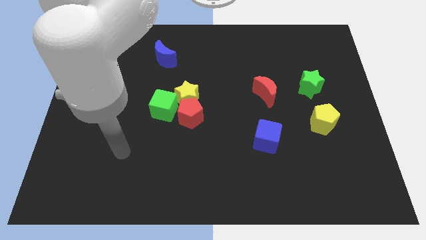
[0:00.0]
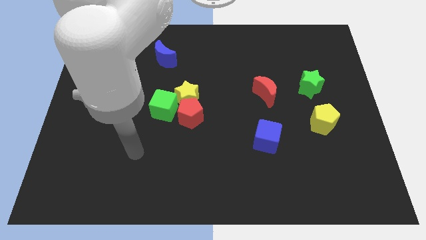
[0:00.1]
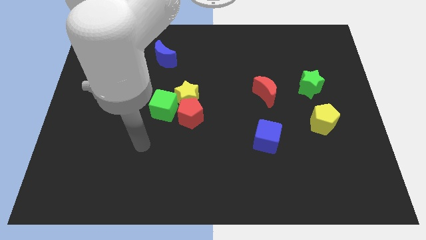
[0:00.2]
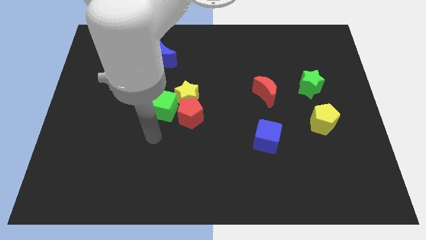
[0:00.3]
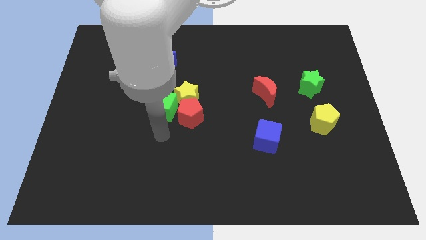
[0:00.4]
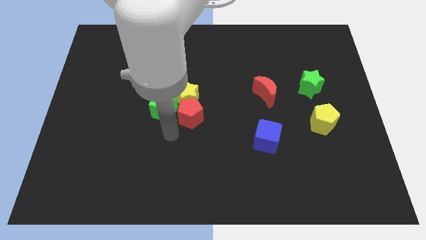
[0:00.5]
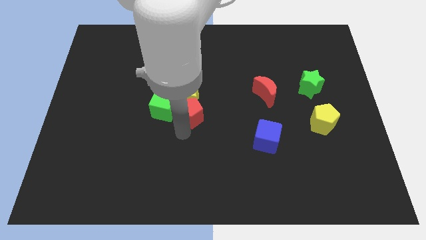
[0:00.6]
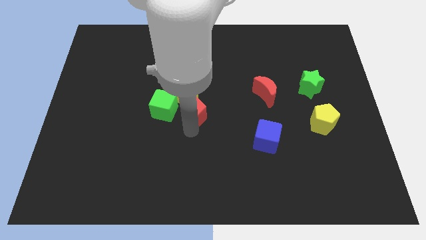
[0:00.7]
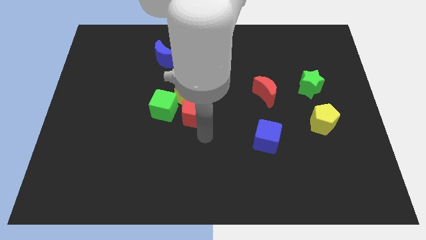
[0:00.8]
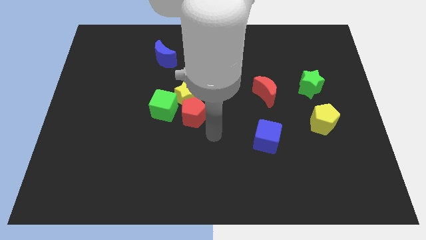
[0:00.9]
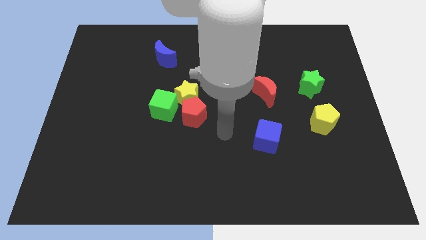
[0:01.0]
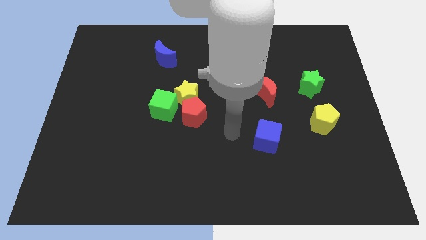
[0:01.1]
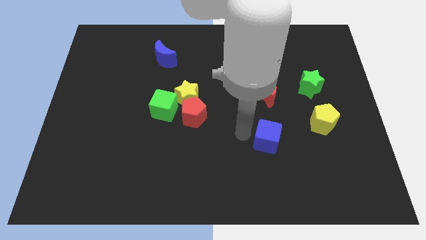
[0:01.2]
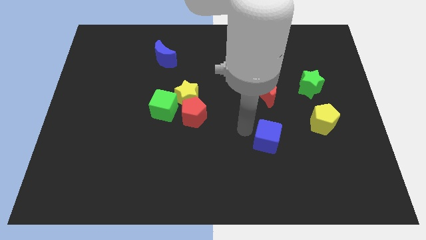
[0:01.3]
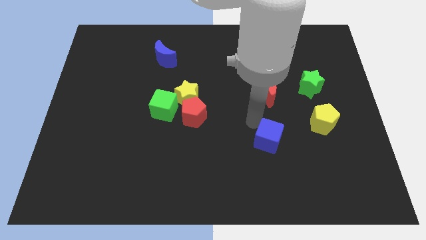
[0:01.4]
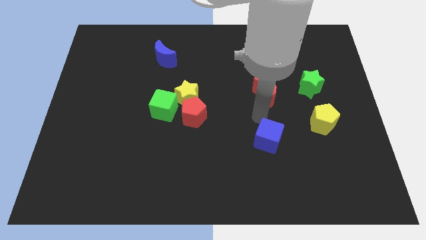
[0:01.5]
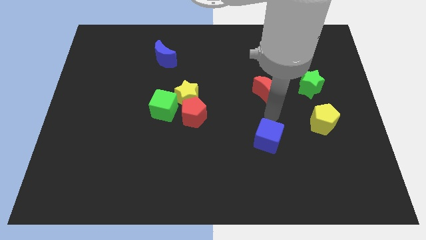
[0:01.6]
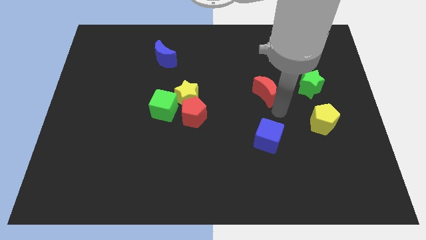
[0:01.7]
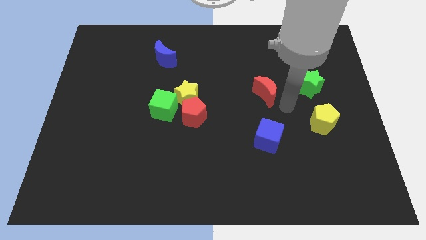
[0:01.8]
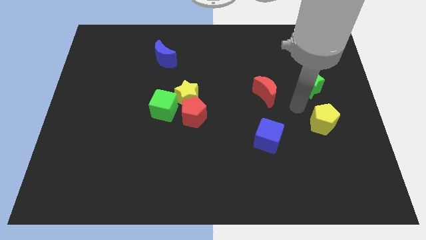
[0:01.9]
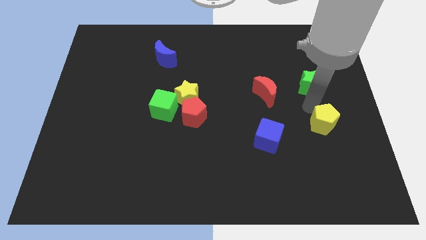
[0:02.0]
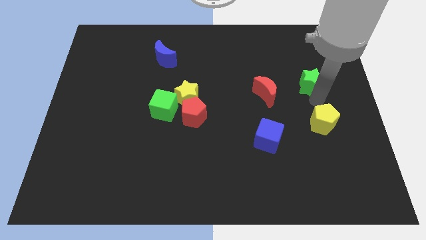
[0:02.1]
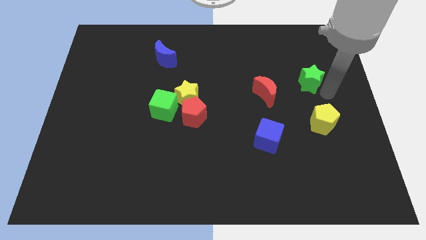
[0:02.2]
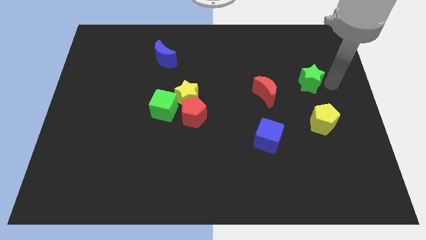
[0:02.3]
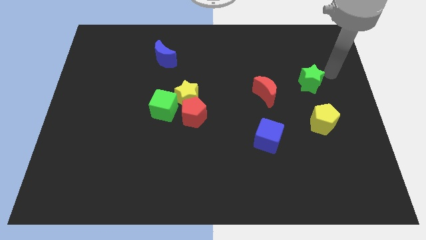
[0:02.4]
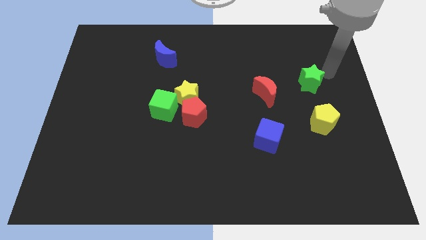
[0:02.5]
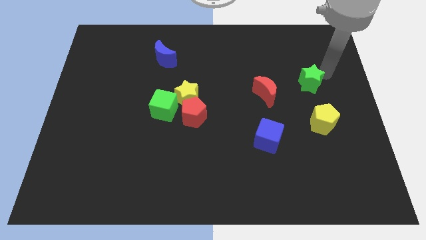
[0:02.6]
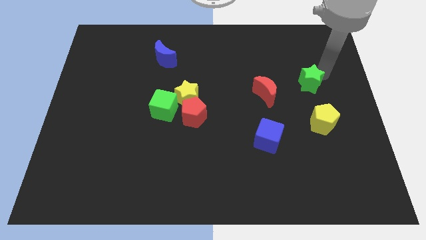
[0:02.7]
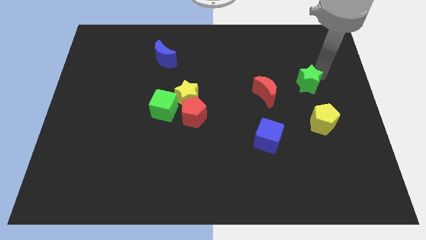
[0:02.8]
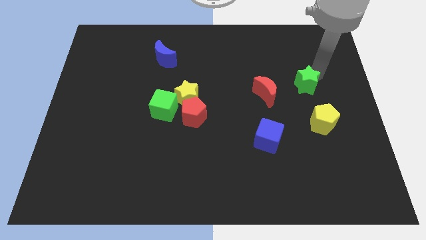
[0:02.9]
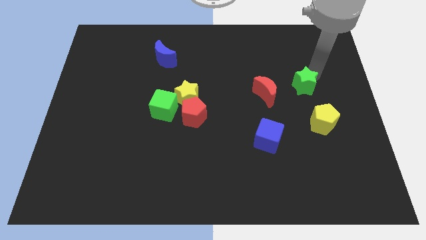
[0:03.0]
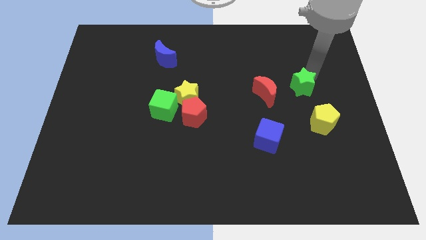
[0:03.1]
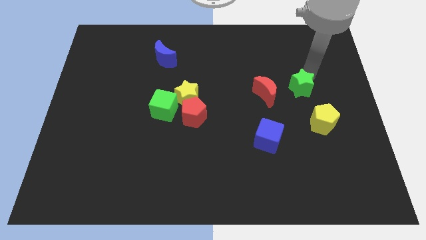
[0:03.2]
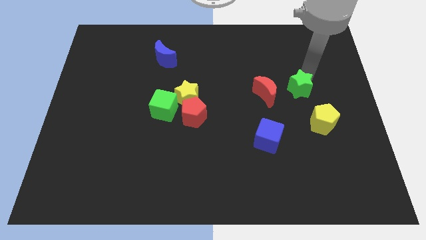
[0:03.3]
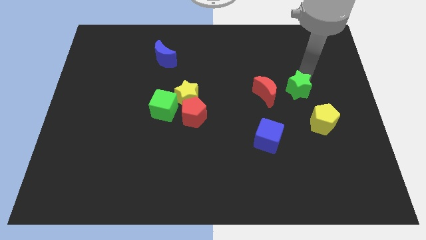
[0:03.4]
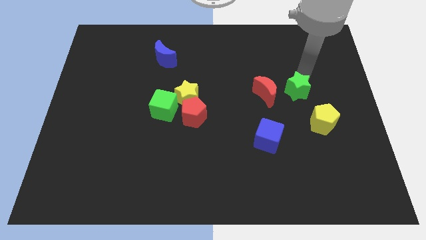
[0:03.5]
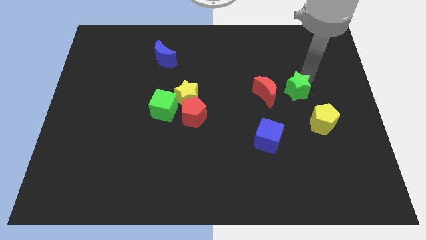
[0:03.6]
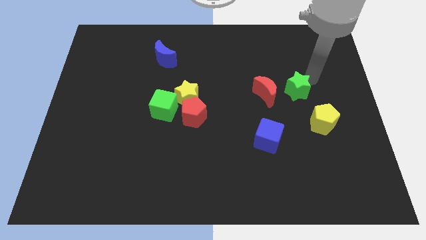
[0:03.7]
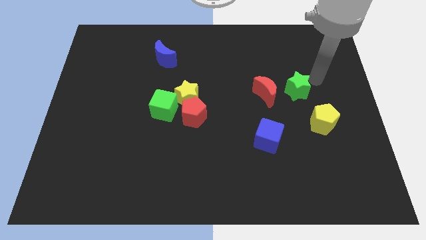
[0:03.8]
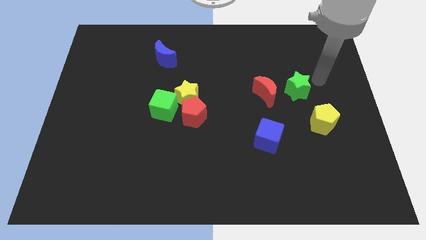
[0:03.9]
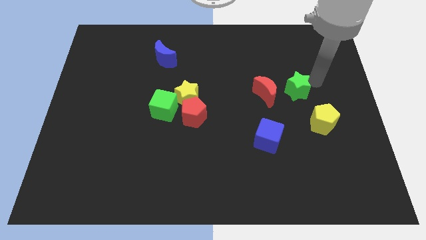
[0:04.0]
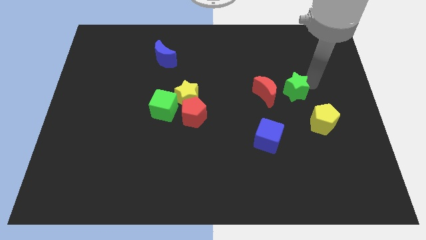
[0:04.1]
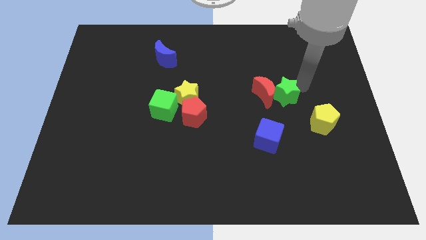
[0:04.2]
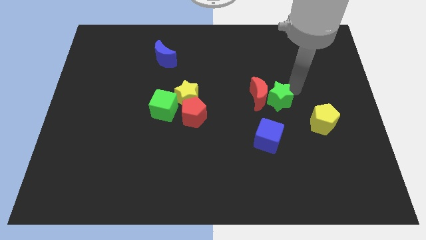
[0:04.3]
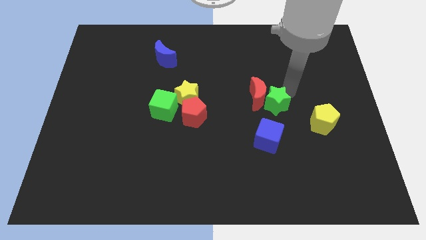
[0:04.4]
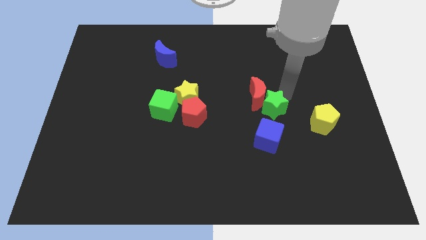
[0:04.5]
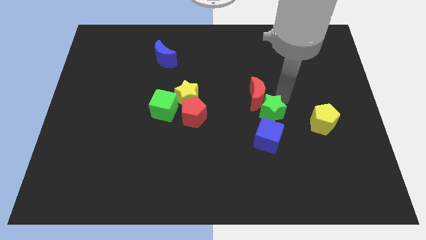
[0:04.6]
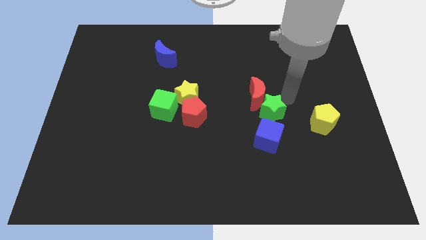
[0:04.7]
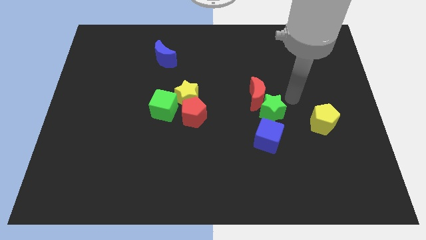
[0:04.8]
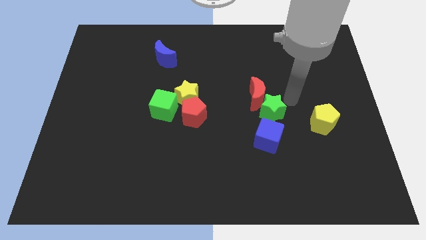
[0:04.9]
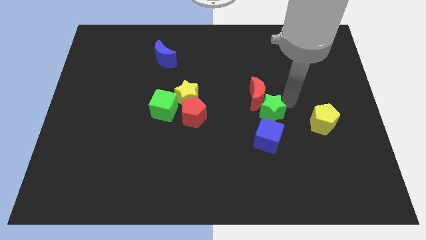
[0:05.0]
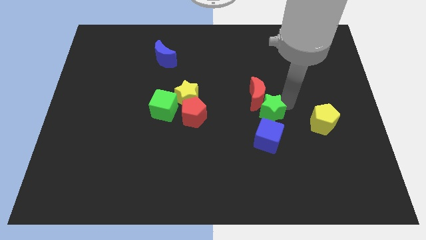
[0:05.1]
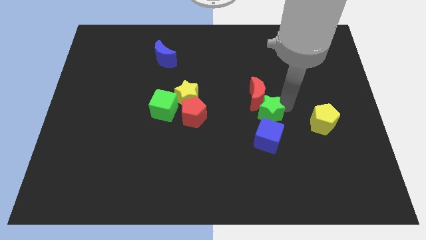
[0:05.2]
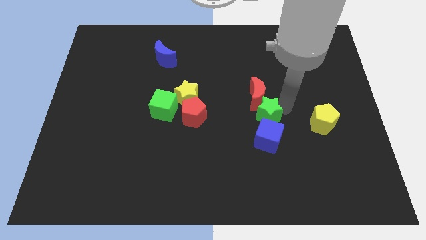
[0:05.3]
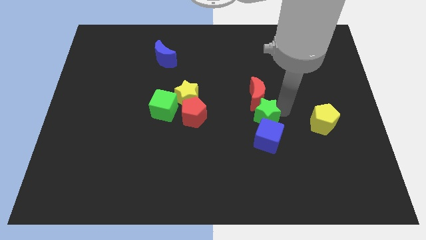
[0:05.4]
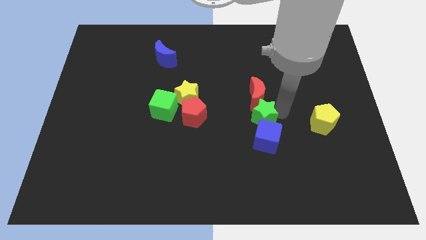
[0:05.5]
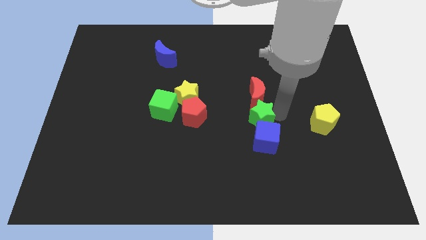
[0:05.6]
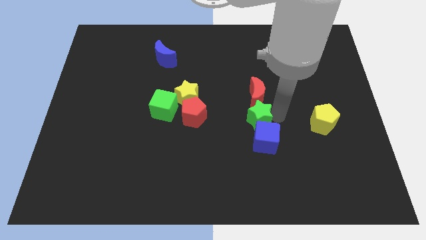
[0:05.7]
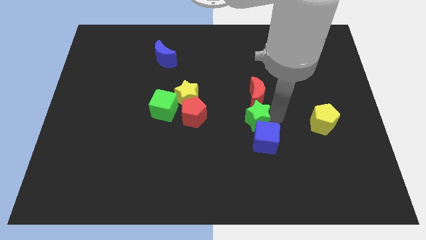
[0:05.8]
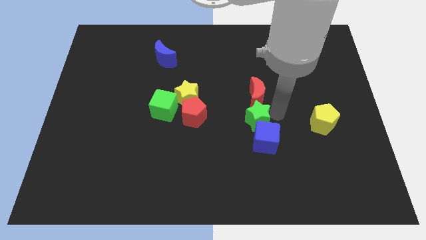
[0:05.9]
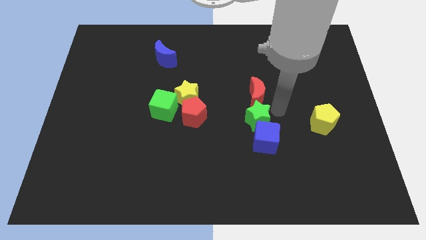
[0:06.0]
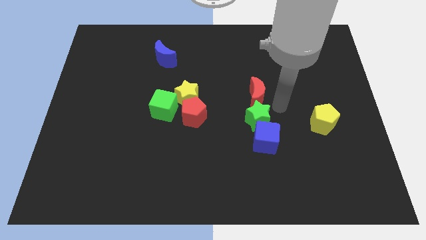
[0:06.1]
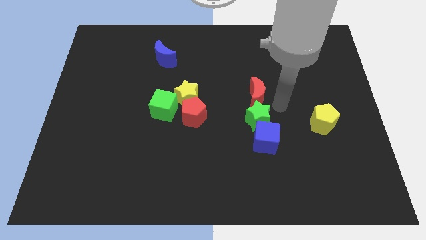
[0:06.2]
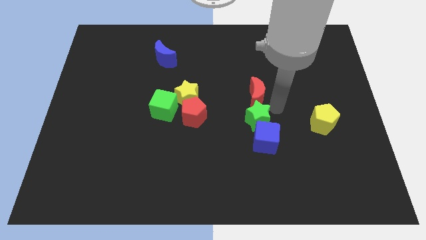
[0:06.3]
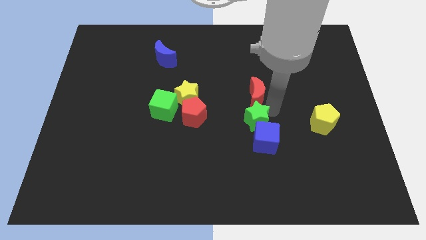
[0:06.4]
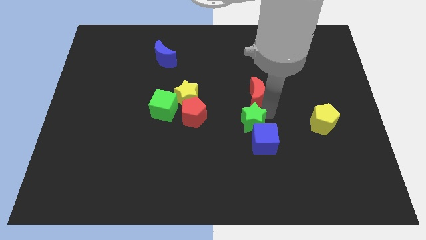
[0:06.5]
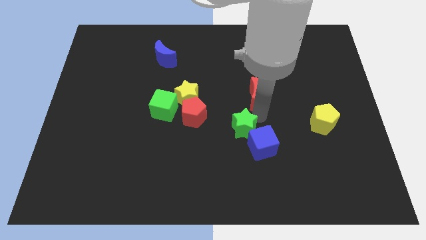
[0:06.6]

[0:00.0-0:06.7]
push the green star diagonally downwards and left

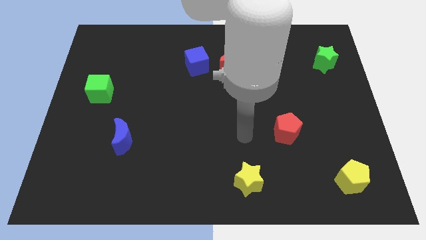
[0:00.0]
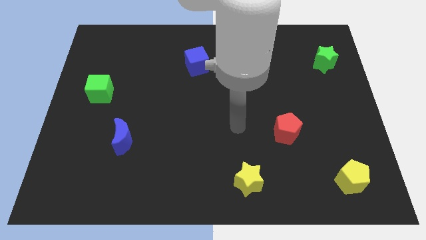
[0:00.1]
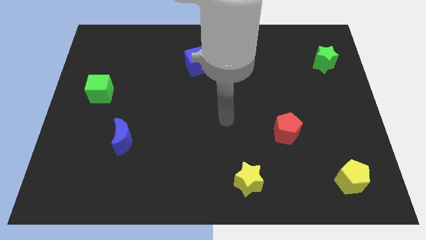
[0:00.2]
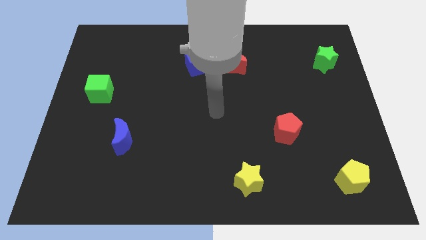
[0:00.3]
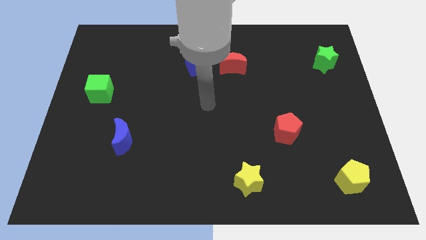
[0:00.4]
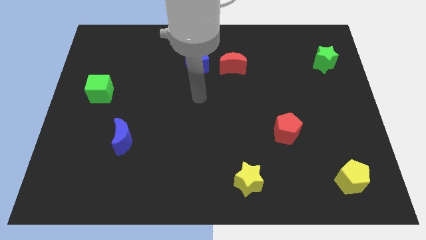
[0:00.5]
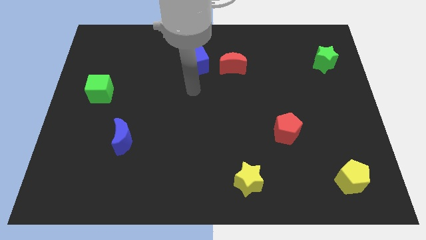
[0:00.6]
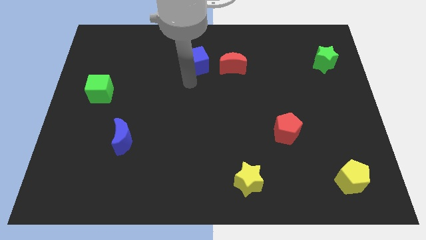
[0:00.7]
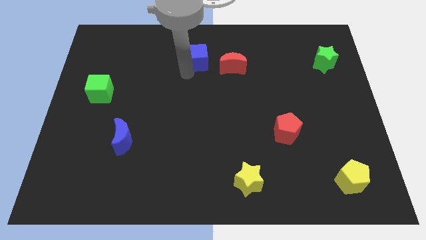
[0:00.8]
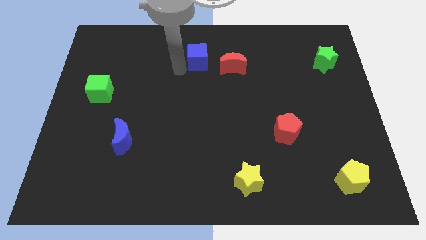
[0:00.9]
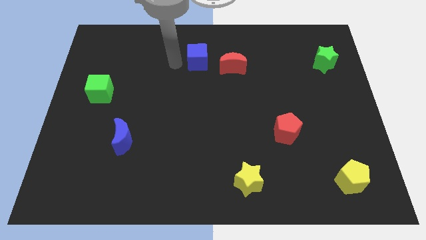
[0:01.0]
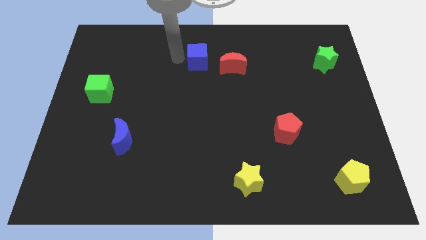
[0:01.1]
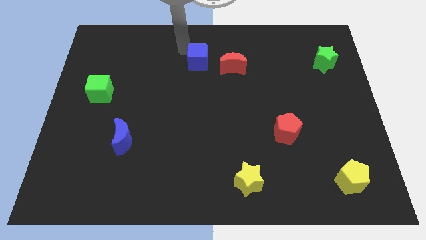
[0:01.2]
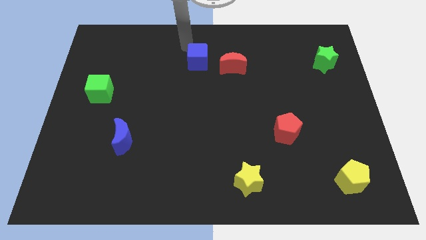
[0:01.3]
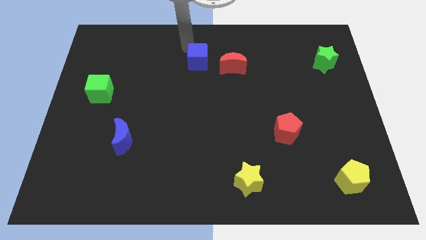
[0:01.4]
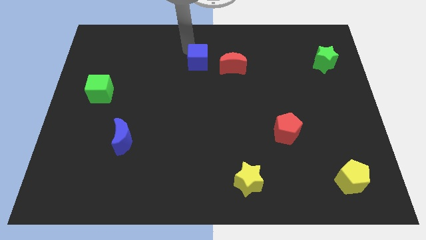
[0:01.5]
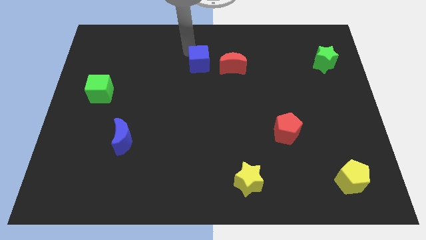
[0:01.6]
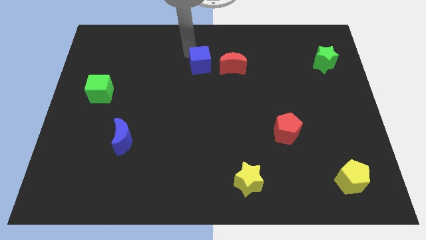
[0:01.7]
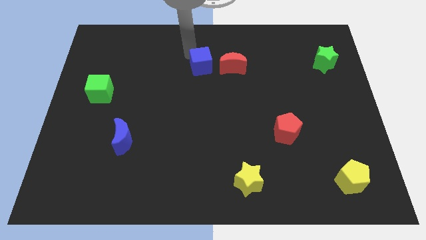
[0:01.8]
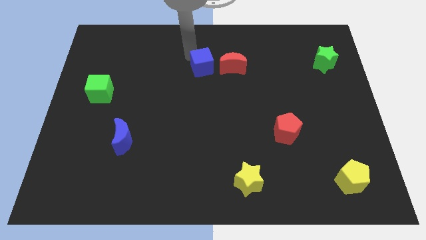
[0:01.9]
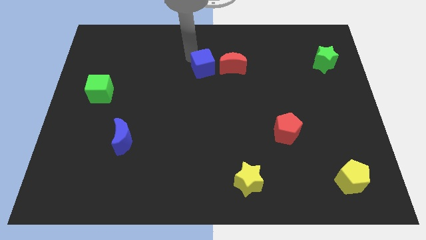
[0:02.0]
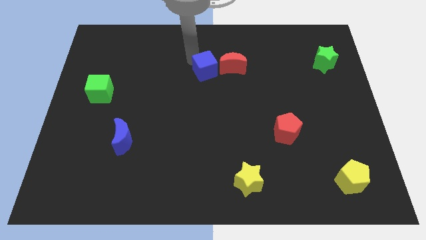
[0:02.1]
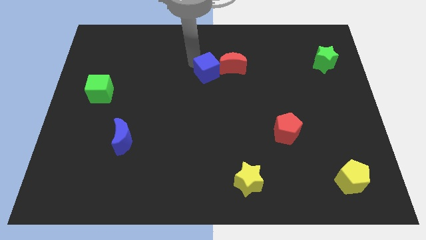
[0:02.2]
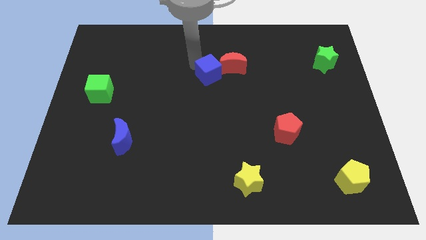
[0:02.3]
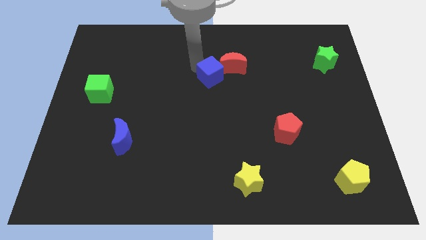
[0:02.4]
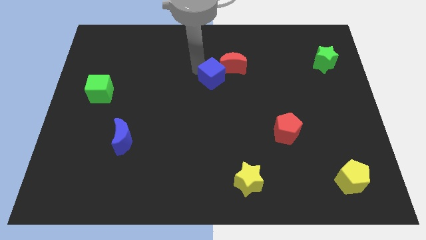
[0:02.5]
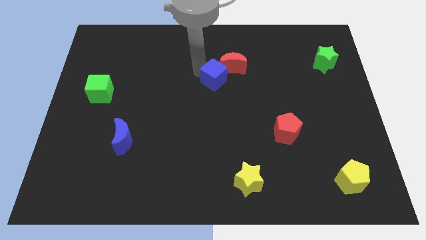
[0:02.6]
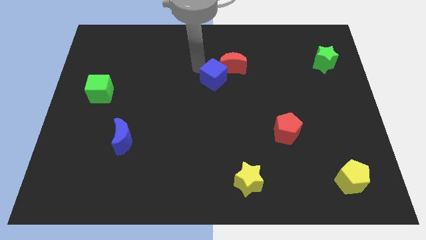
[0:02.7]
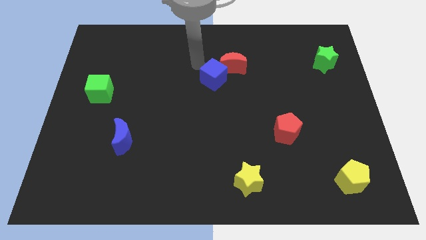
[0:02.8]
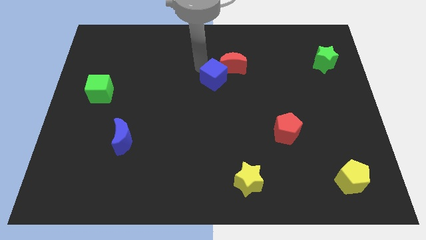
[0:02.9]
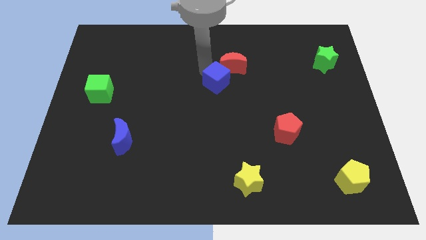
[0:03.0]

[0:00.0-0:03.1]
push the blue cube slightly down and then right
